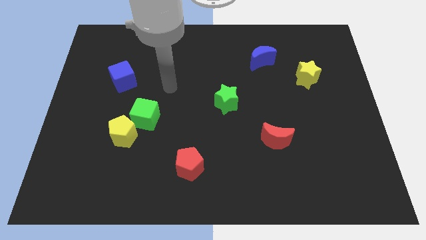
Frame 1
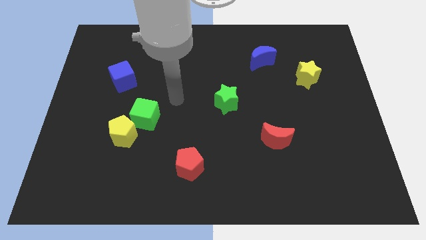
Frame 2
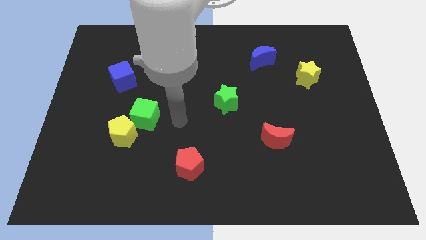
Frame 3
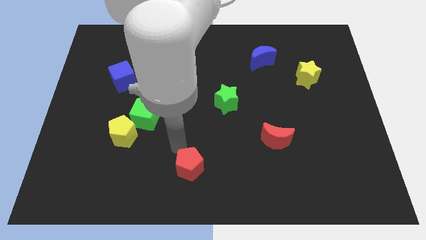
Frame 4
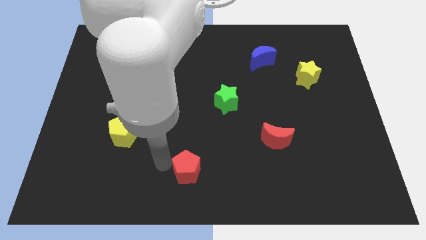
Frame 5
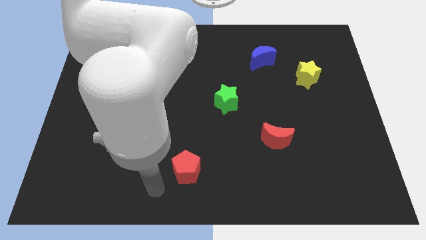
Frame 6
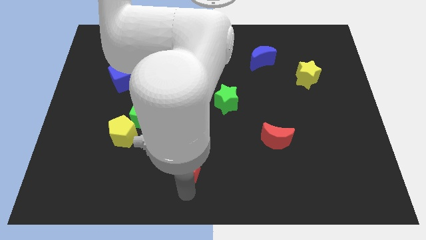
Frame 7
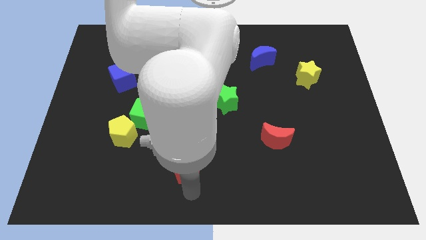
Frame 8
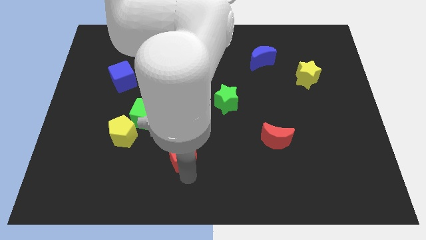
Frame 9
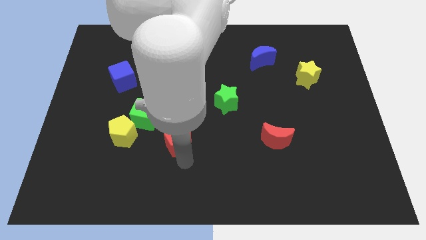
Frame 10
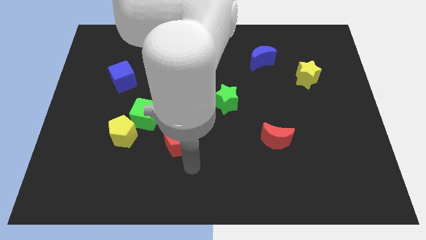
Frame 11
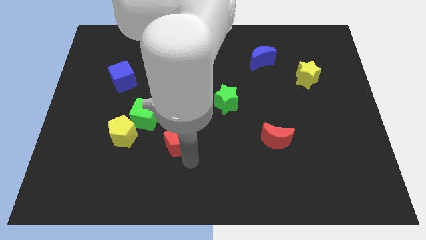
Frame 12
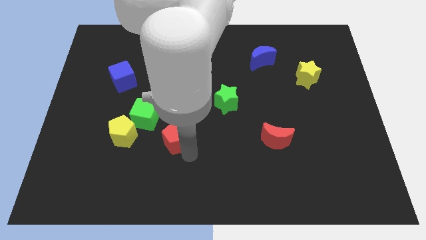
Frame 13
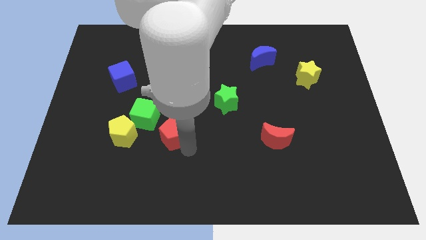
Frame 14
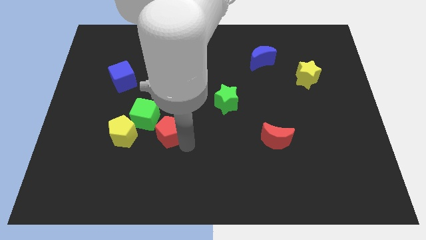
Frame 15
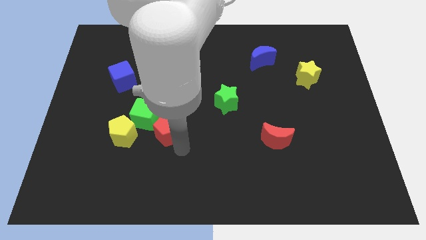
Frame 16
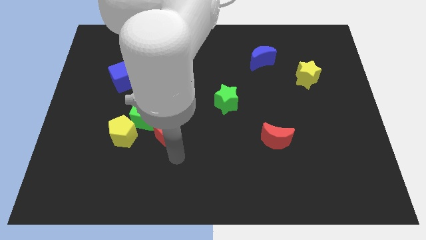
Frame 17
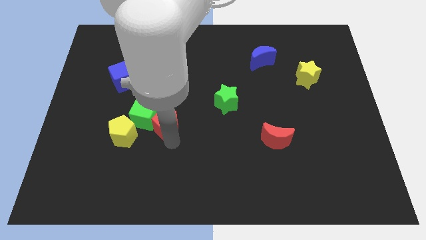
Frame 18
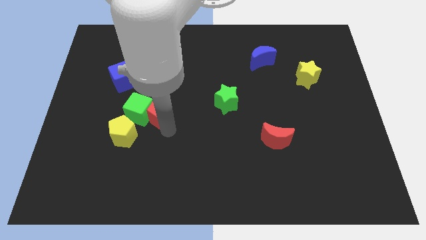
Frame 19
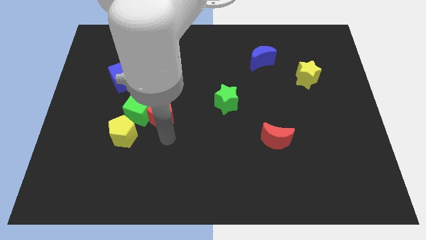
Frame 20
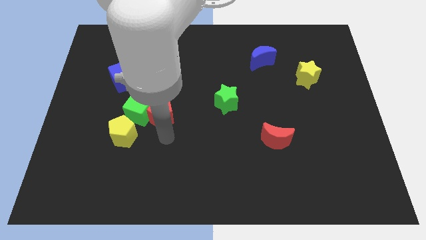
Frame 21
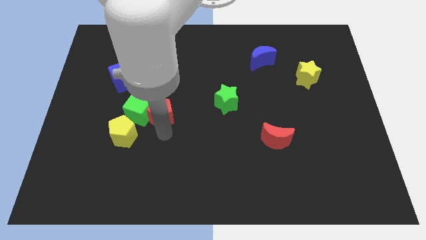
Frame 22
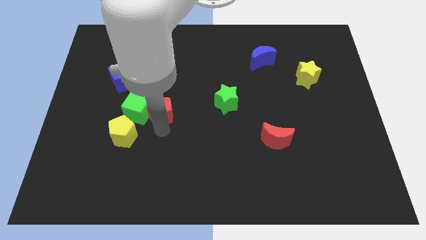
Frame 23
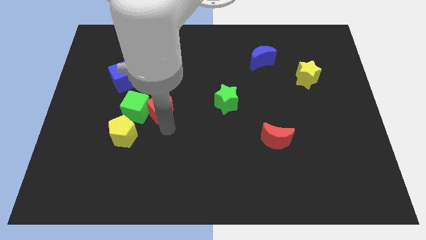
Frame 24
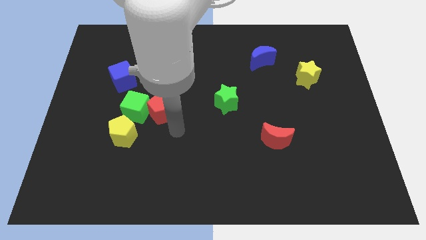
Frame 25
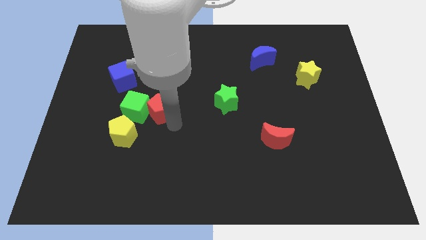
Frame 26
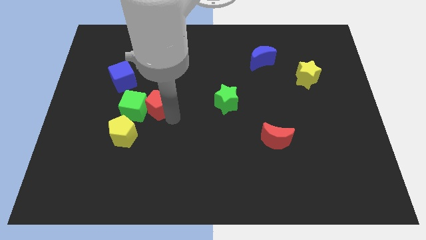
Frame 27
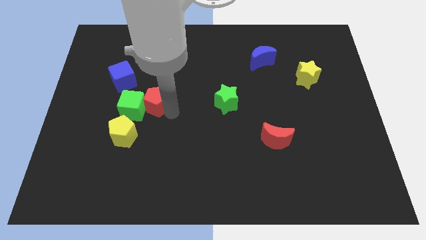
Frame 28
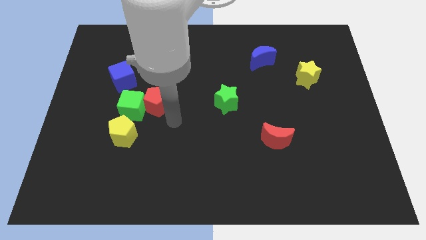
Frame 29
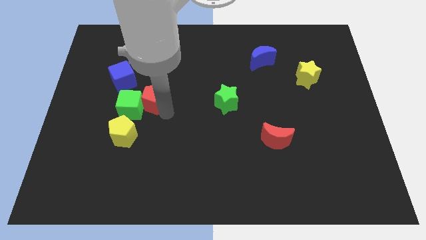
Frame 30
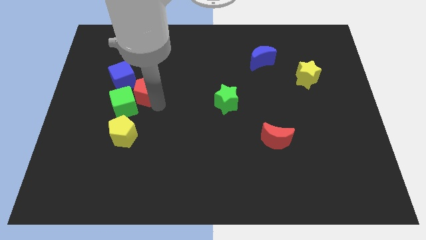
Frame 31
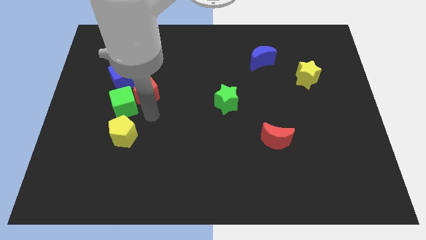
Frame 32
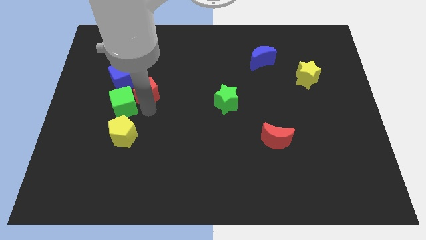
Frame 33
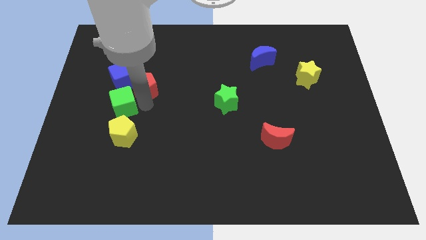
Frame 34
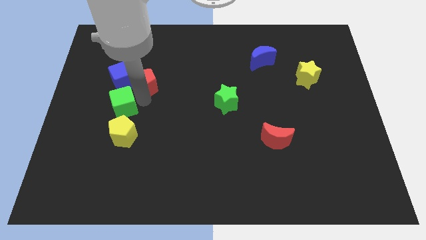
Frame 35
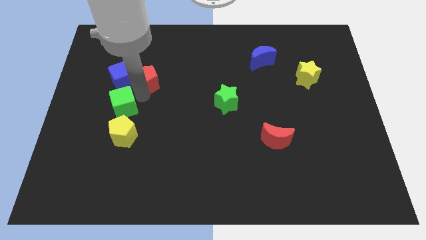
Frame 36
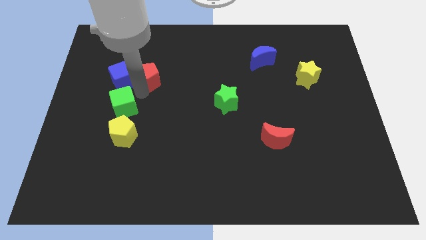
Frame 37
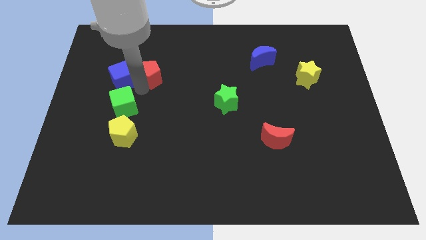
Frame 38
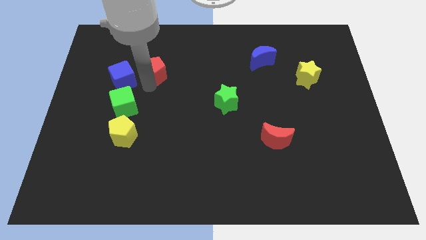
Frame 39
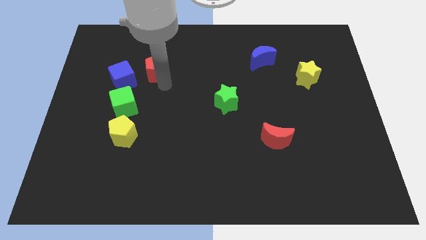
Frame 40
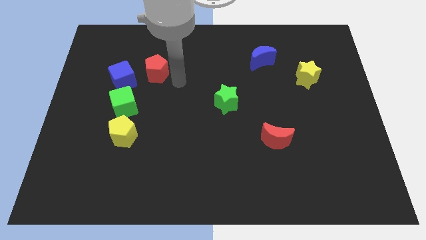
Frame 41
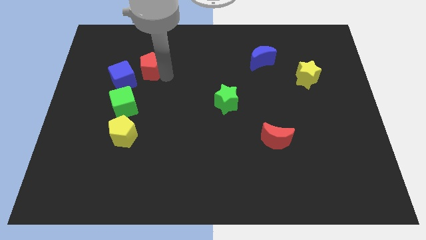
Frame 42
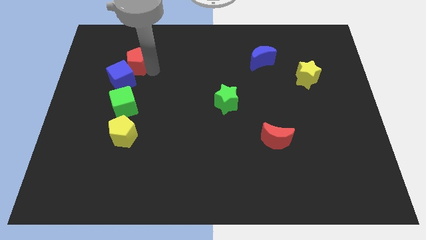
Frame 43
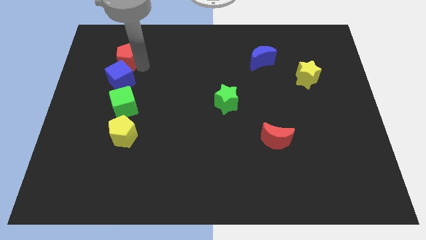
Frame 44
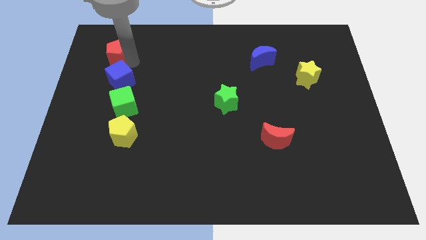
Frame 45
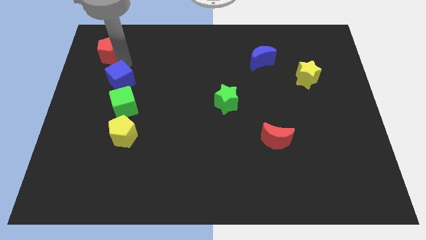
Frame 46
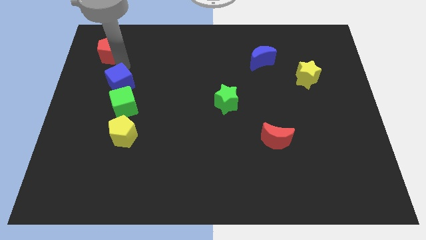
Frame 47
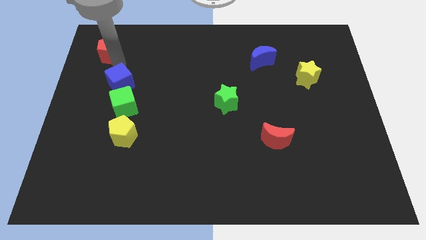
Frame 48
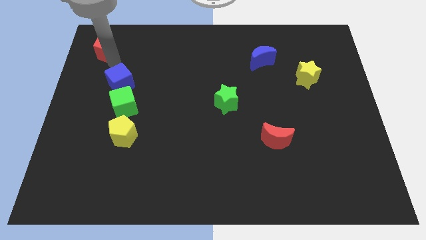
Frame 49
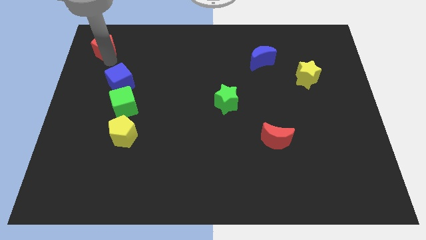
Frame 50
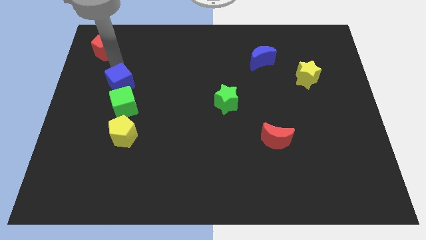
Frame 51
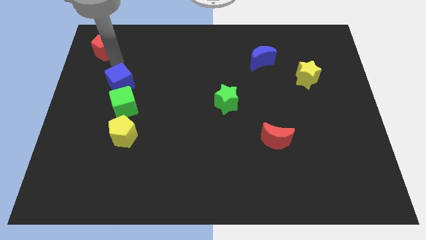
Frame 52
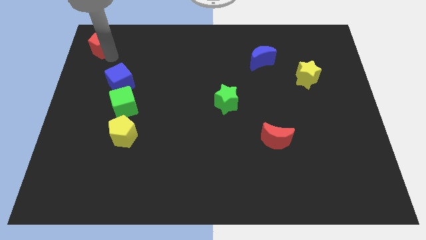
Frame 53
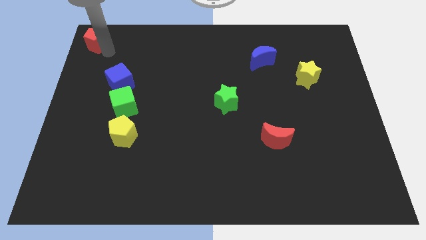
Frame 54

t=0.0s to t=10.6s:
push the red pentagon to the upper left corner
